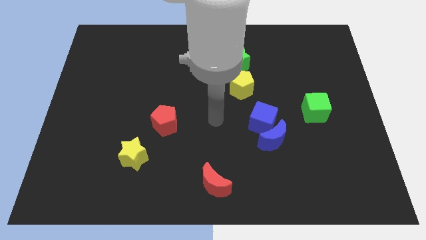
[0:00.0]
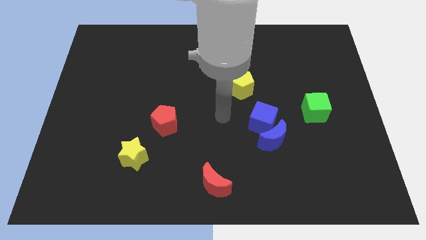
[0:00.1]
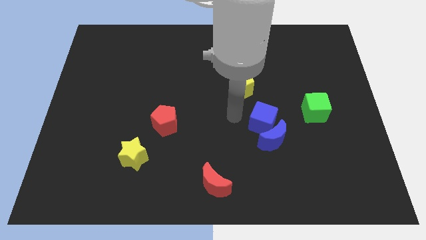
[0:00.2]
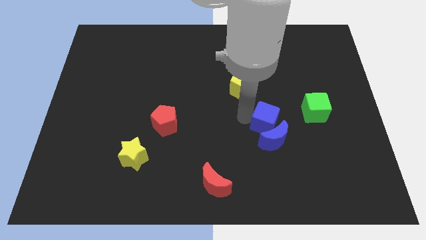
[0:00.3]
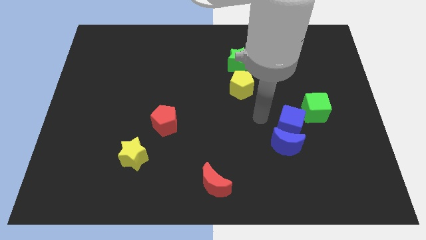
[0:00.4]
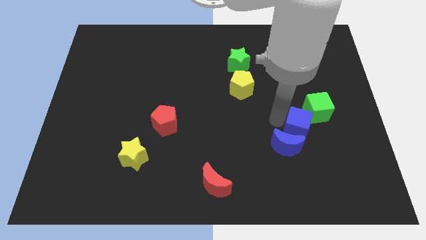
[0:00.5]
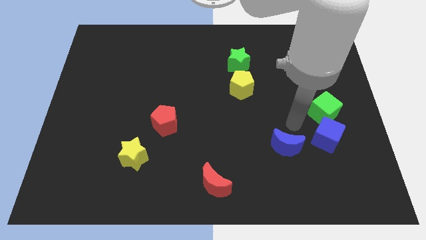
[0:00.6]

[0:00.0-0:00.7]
move the blue moon away from the blue cube

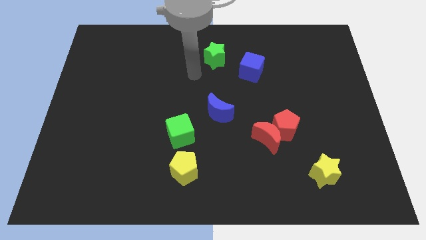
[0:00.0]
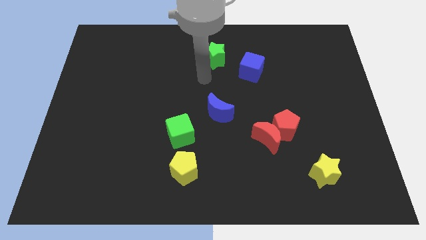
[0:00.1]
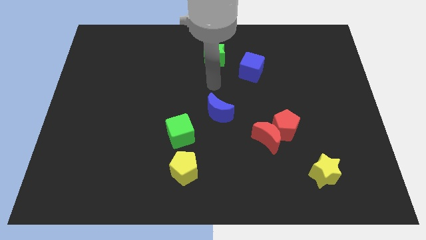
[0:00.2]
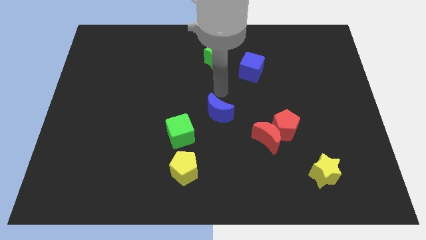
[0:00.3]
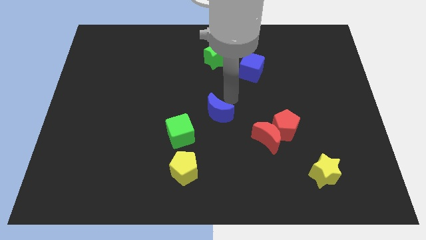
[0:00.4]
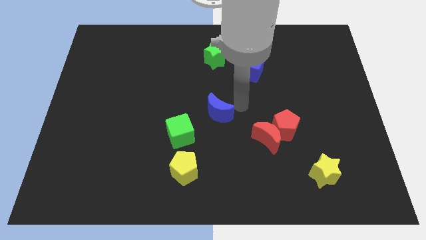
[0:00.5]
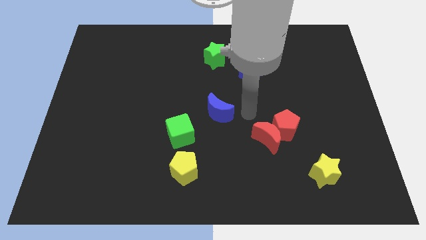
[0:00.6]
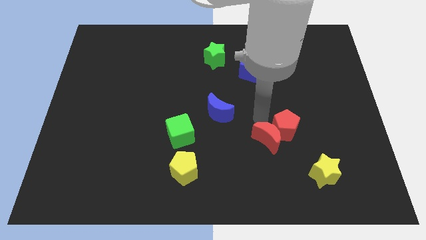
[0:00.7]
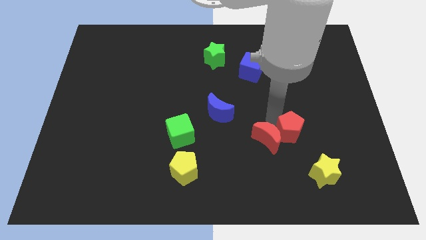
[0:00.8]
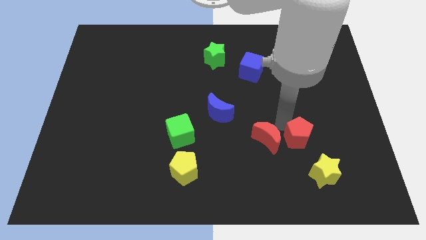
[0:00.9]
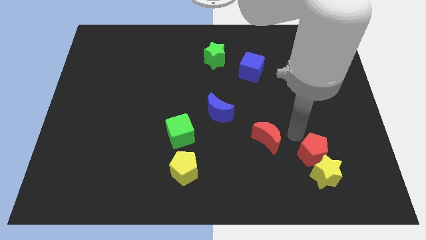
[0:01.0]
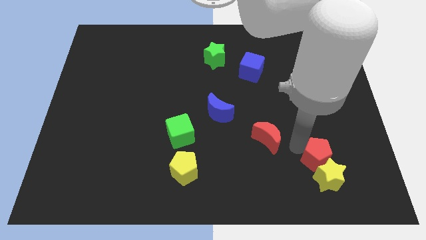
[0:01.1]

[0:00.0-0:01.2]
separate the red moon from the red pentagon

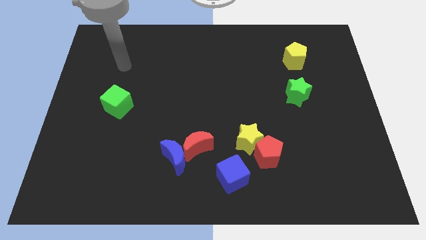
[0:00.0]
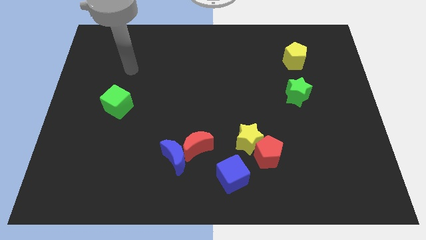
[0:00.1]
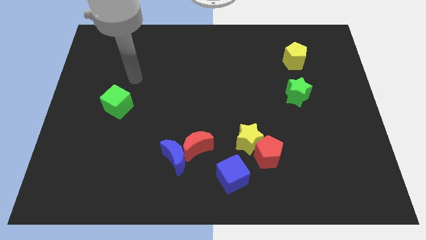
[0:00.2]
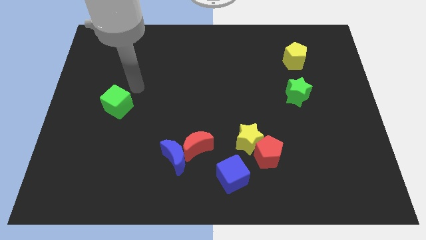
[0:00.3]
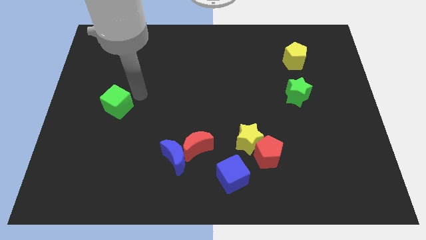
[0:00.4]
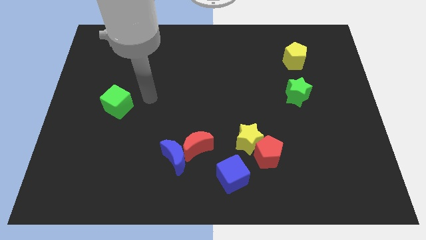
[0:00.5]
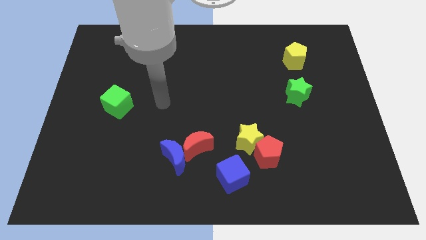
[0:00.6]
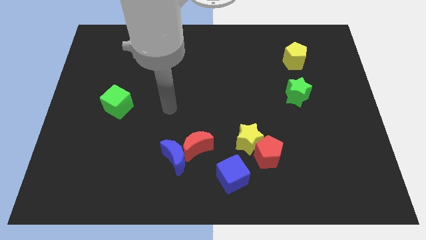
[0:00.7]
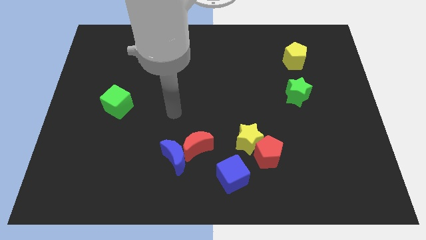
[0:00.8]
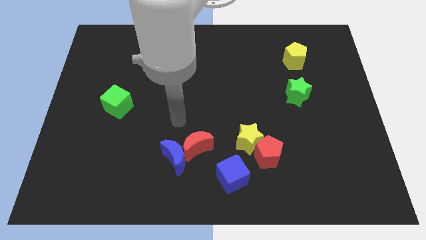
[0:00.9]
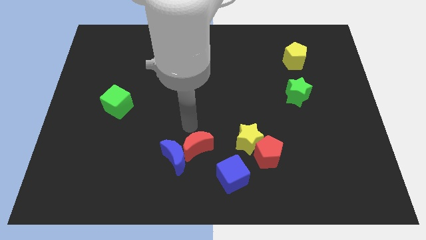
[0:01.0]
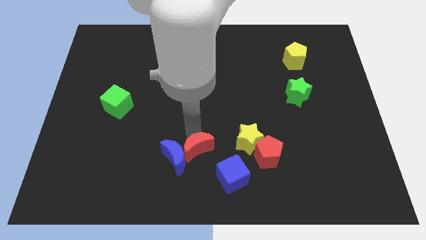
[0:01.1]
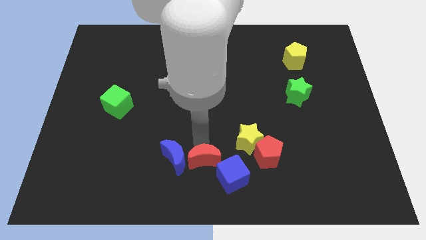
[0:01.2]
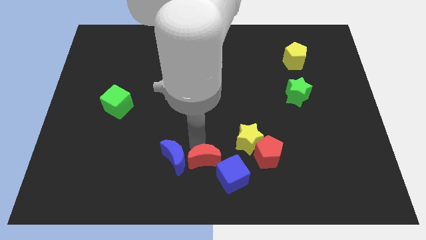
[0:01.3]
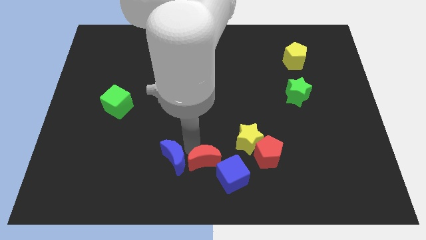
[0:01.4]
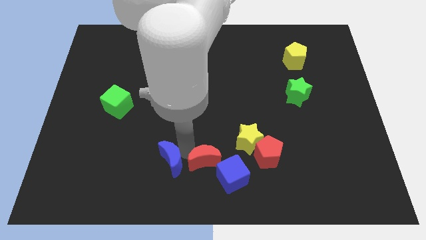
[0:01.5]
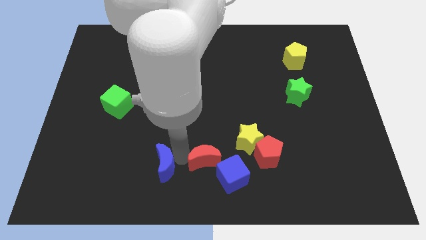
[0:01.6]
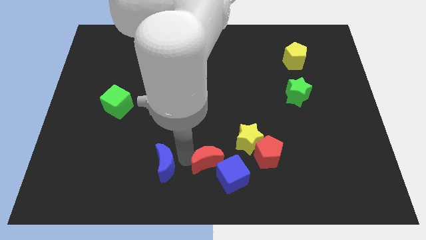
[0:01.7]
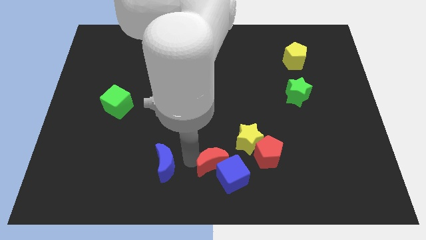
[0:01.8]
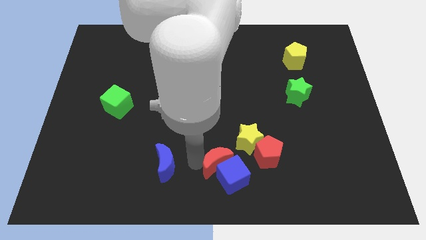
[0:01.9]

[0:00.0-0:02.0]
separate the blue moon from the red moon

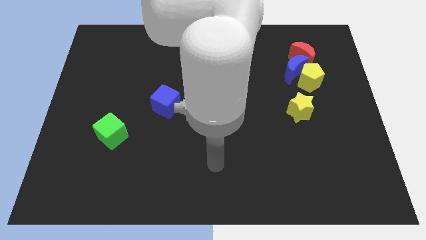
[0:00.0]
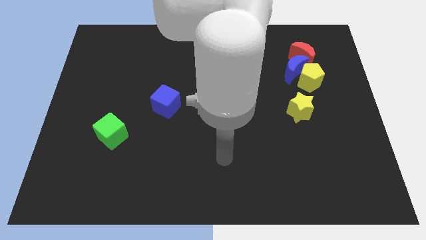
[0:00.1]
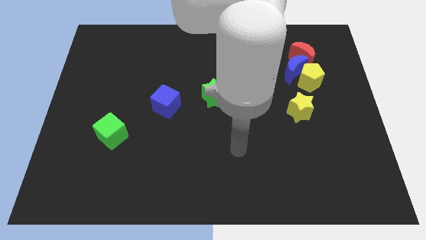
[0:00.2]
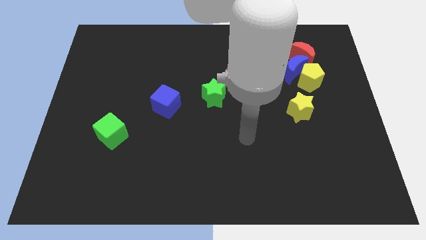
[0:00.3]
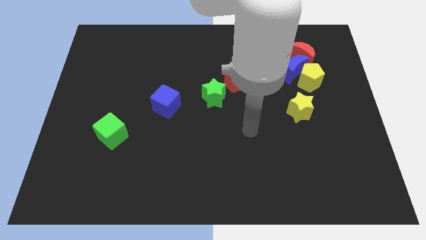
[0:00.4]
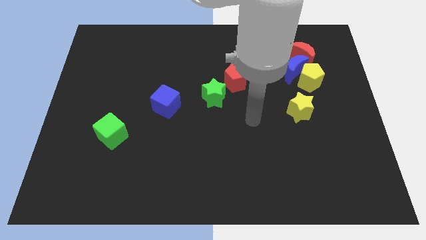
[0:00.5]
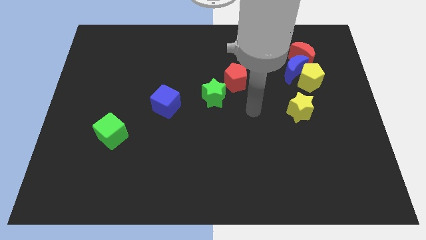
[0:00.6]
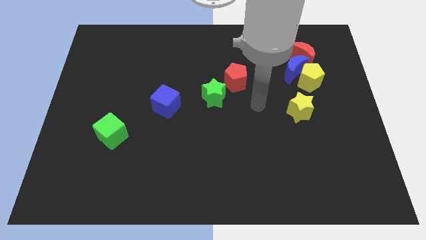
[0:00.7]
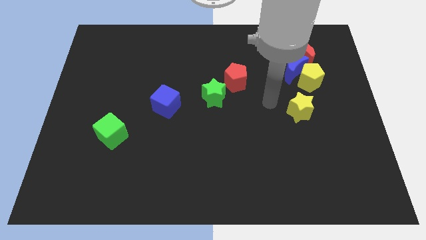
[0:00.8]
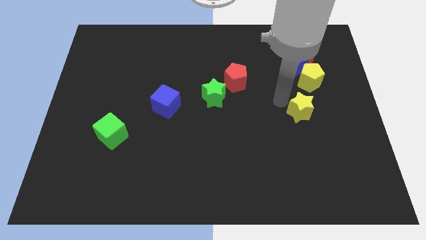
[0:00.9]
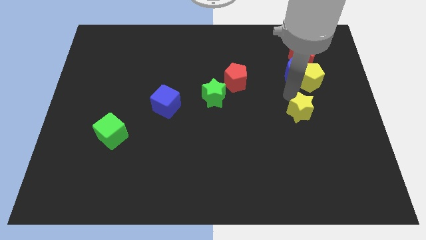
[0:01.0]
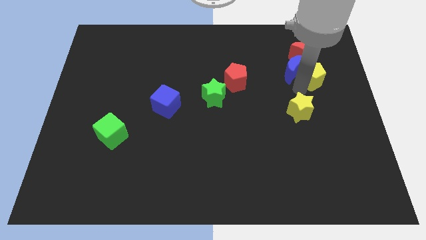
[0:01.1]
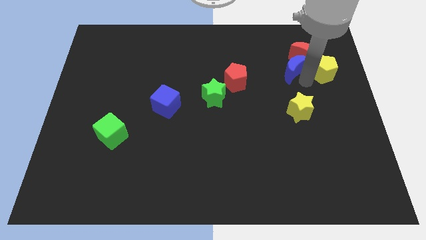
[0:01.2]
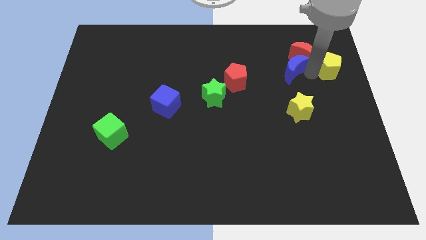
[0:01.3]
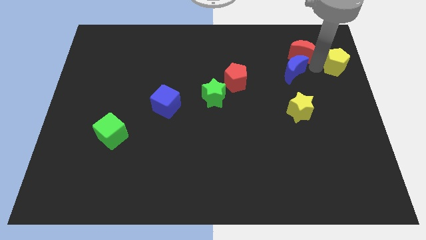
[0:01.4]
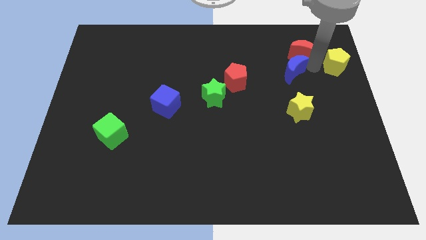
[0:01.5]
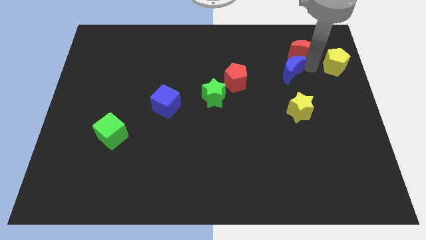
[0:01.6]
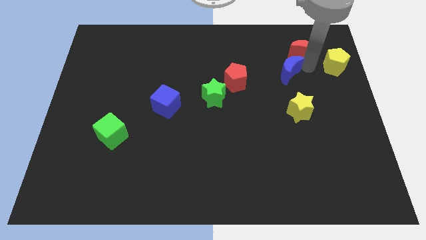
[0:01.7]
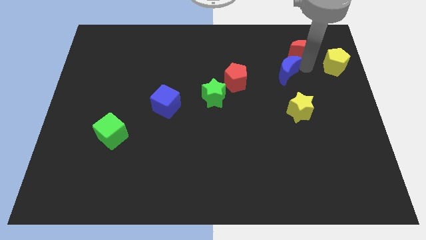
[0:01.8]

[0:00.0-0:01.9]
pull the blue moon apart from the yellow pentagon and red moon

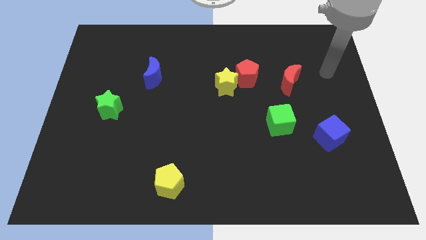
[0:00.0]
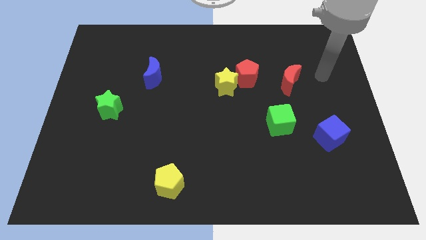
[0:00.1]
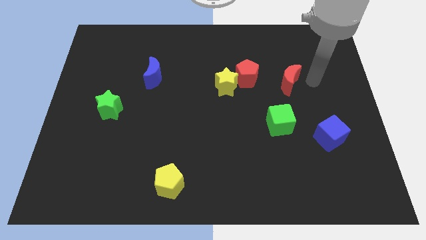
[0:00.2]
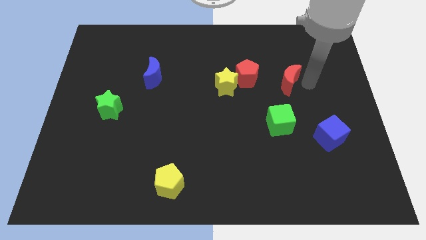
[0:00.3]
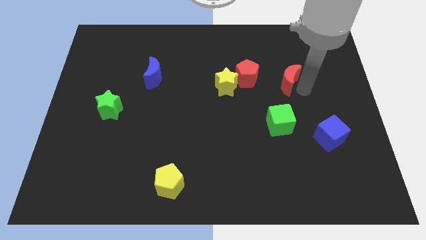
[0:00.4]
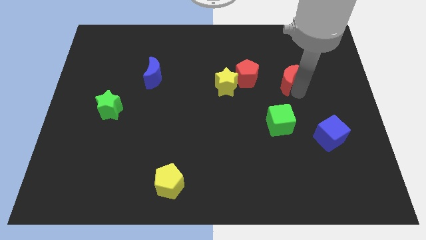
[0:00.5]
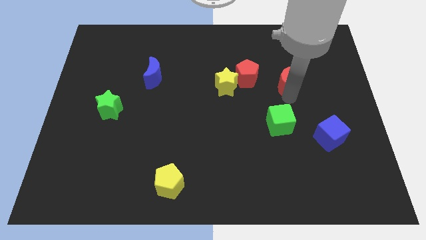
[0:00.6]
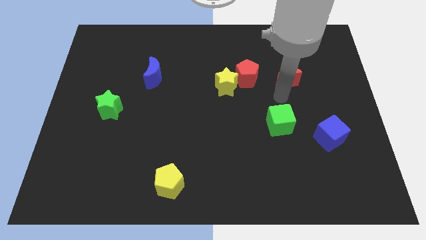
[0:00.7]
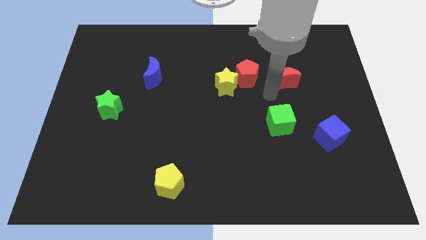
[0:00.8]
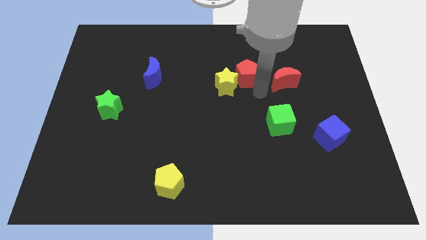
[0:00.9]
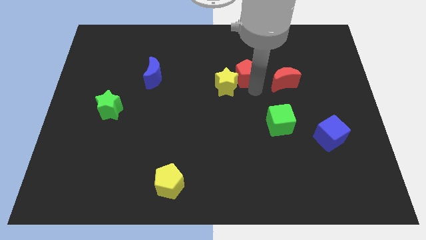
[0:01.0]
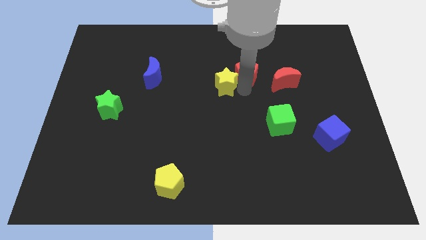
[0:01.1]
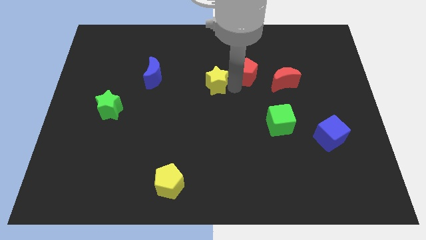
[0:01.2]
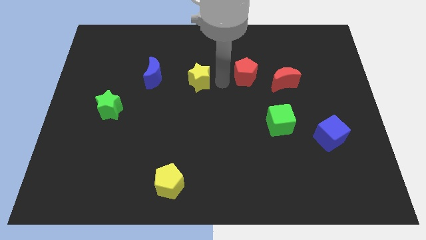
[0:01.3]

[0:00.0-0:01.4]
pull the red pentagon apart from the yellow star

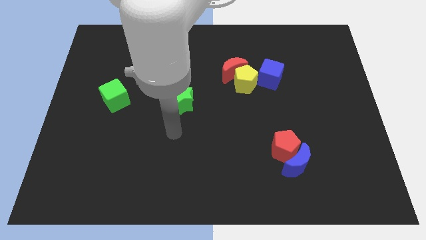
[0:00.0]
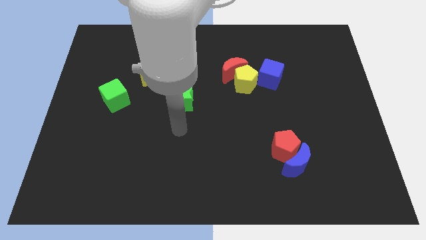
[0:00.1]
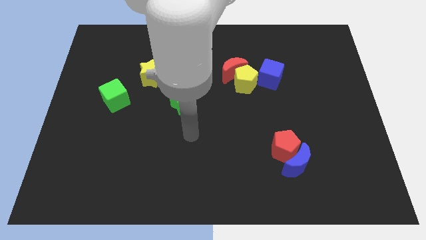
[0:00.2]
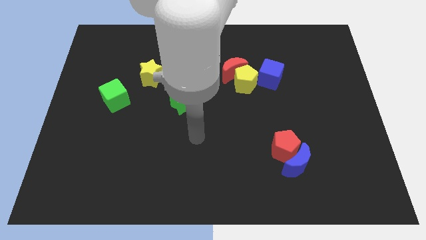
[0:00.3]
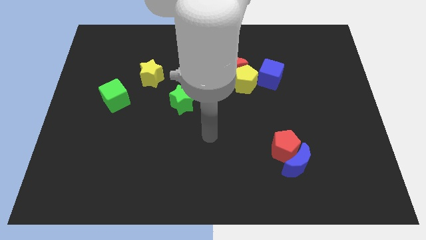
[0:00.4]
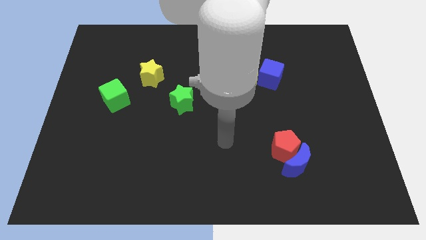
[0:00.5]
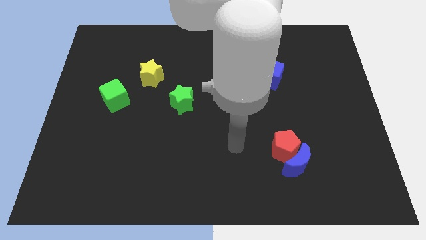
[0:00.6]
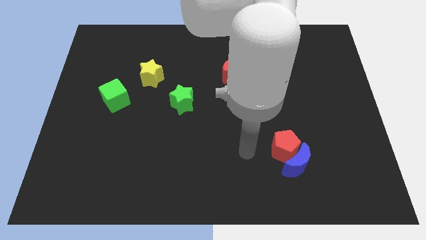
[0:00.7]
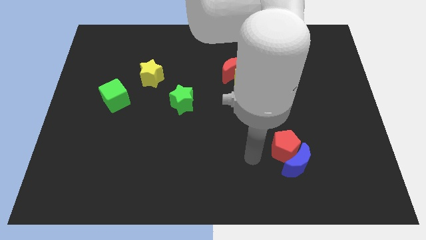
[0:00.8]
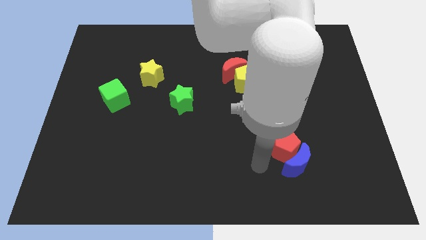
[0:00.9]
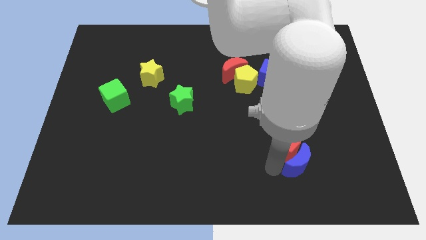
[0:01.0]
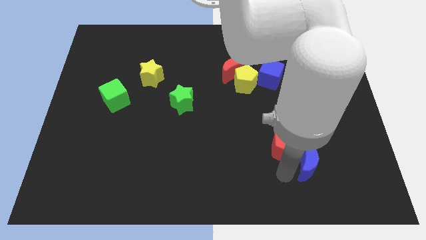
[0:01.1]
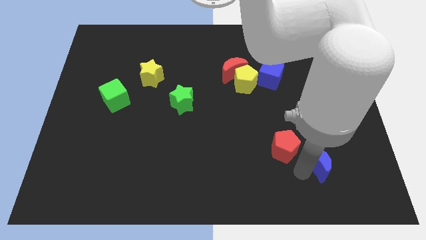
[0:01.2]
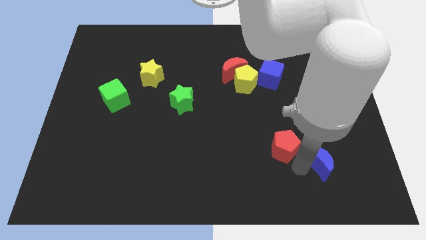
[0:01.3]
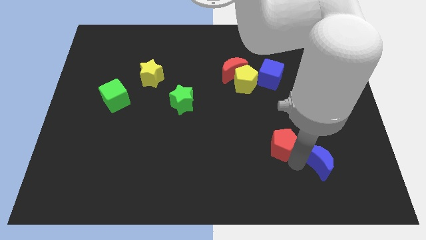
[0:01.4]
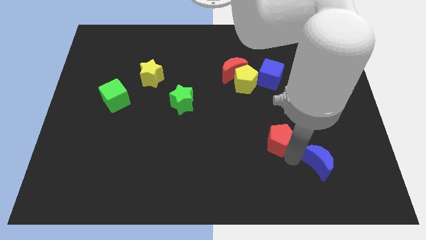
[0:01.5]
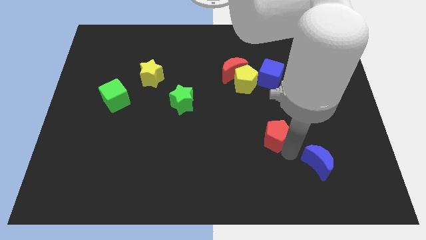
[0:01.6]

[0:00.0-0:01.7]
move the red pentagon away from the blue moon

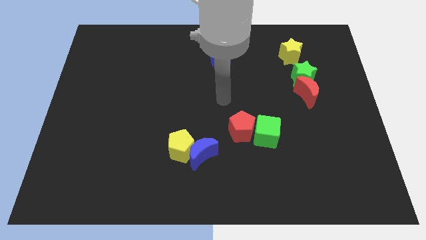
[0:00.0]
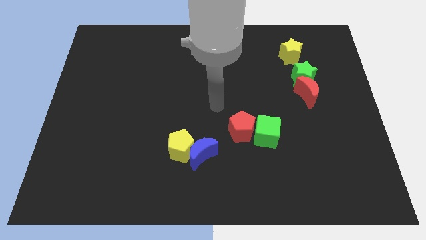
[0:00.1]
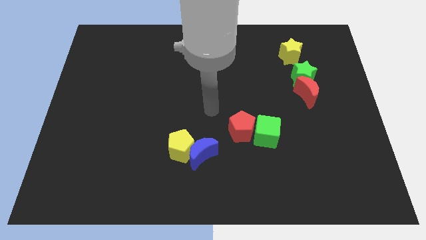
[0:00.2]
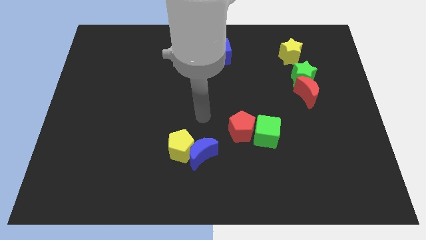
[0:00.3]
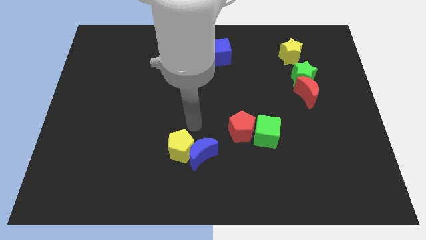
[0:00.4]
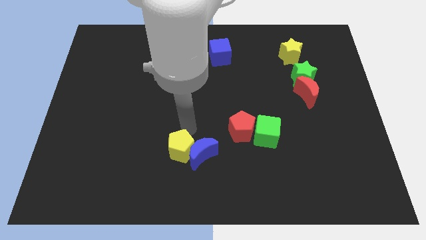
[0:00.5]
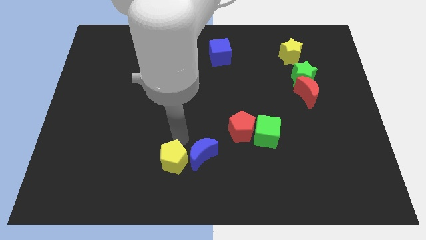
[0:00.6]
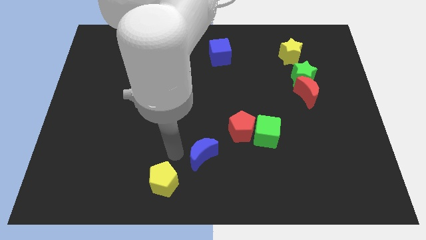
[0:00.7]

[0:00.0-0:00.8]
separate the blue moon from the yellow pentagon
